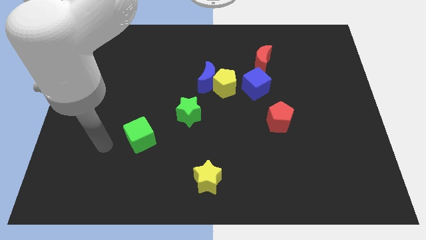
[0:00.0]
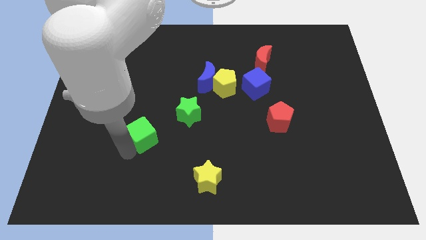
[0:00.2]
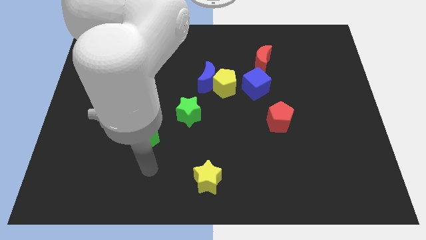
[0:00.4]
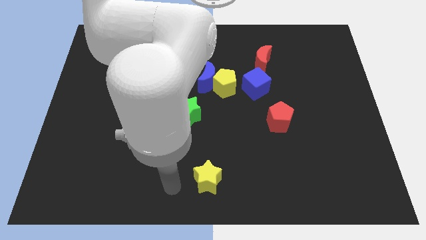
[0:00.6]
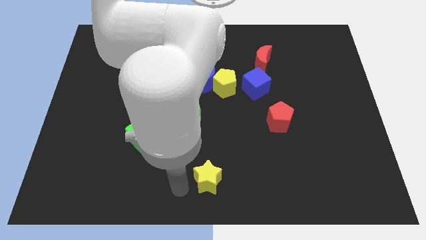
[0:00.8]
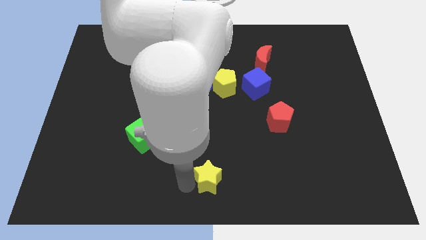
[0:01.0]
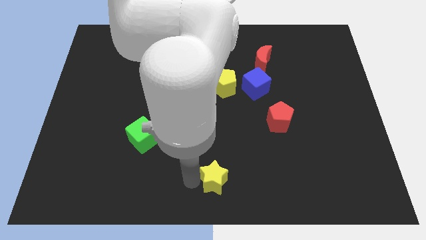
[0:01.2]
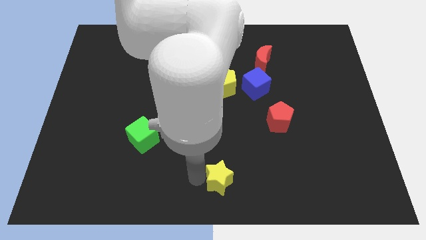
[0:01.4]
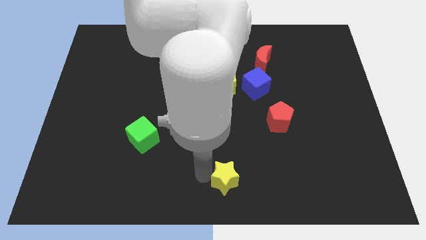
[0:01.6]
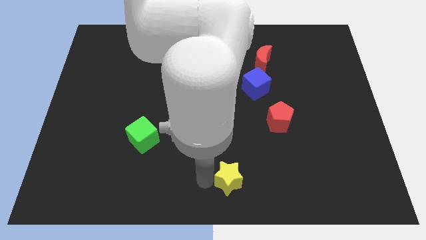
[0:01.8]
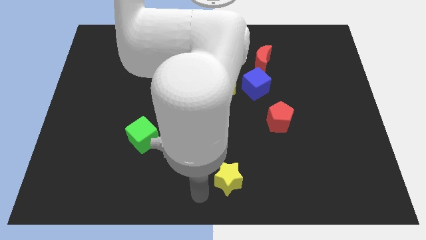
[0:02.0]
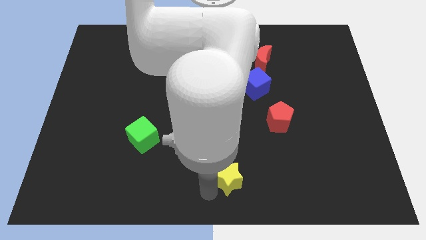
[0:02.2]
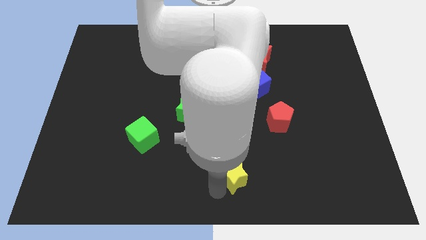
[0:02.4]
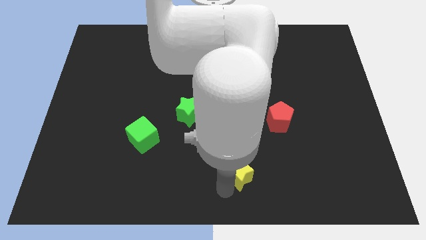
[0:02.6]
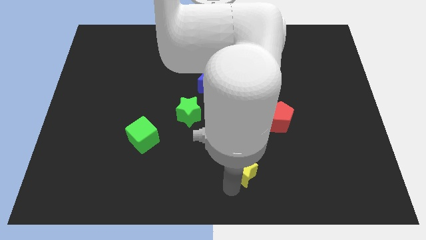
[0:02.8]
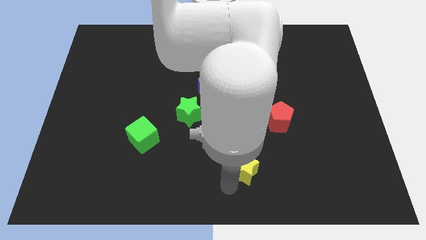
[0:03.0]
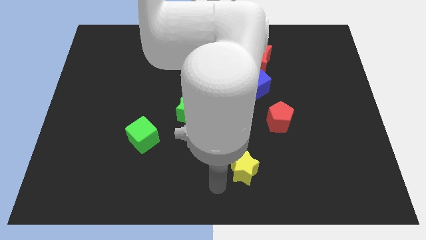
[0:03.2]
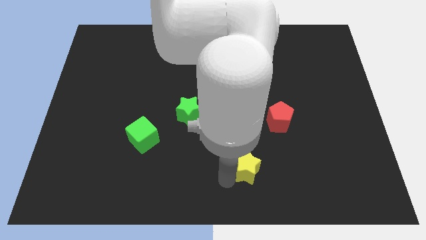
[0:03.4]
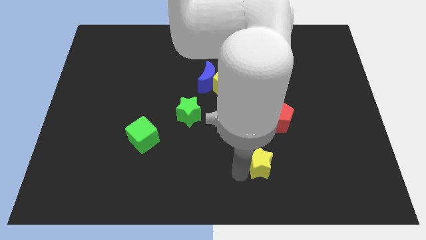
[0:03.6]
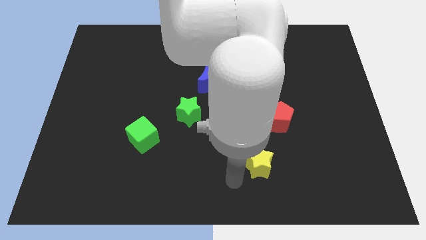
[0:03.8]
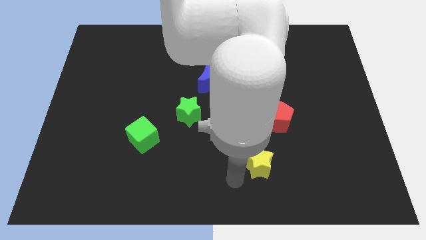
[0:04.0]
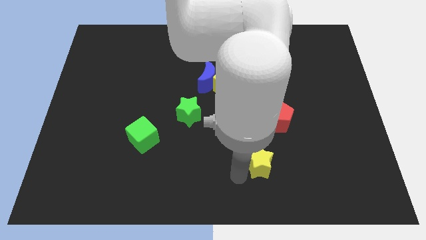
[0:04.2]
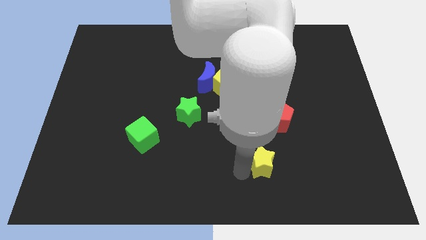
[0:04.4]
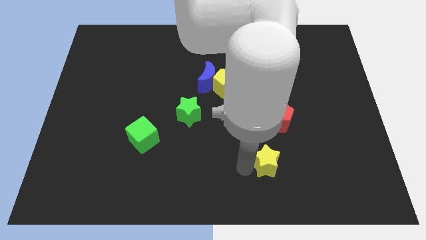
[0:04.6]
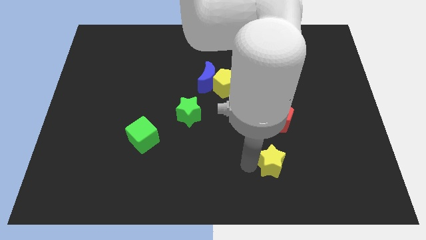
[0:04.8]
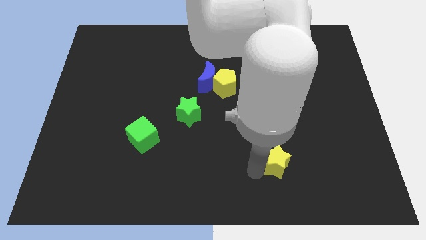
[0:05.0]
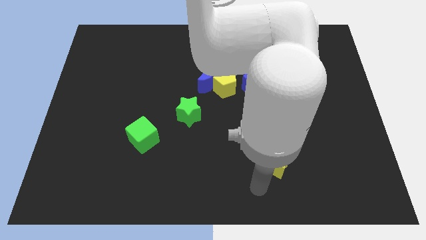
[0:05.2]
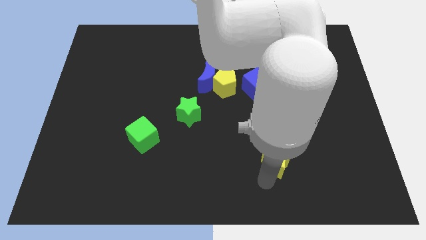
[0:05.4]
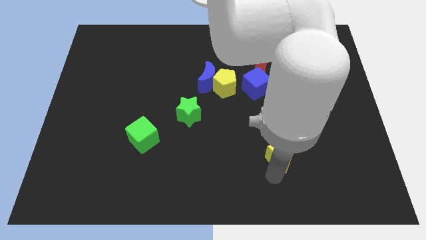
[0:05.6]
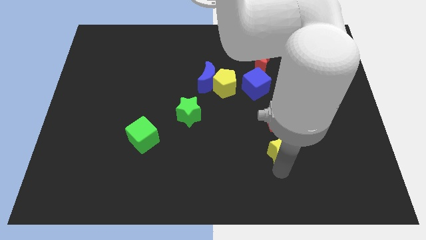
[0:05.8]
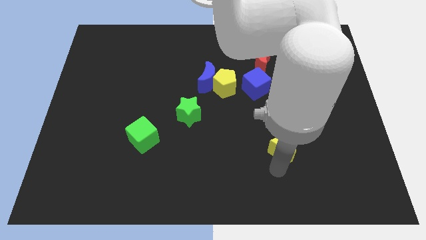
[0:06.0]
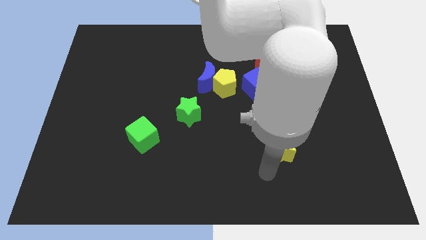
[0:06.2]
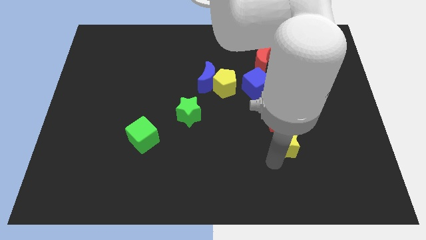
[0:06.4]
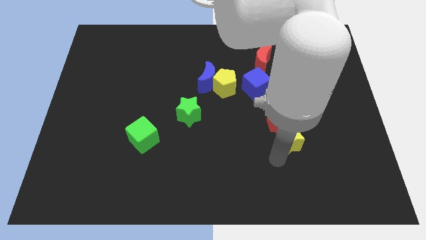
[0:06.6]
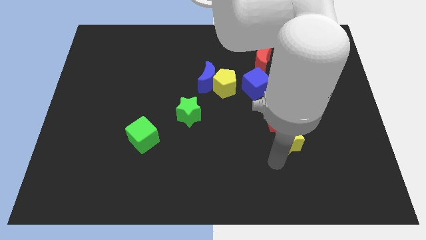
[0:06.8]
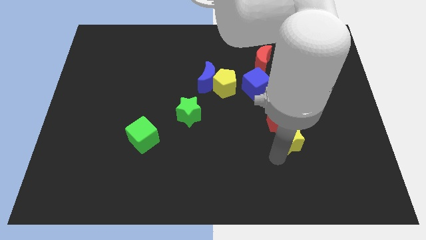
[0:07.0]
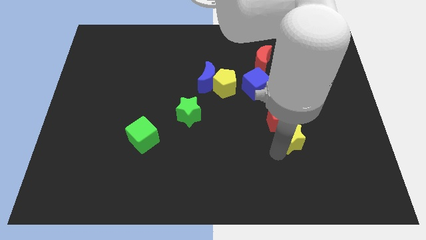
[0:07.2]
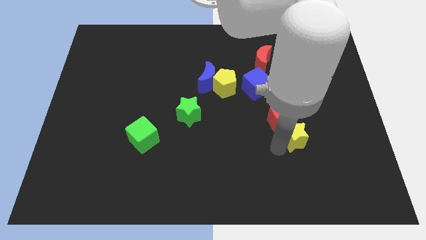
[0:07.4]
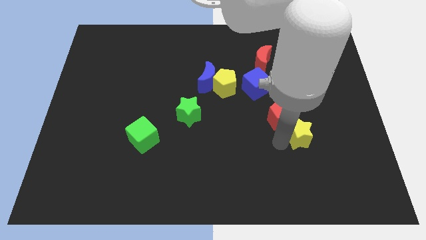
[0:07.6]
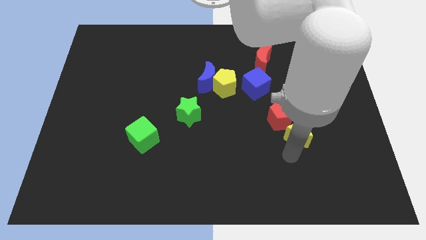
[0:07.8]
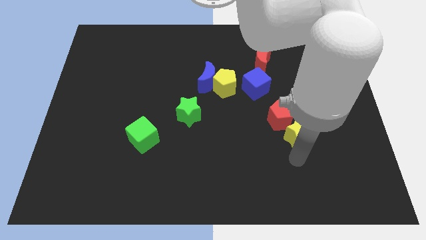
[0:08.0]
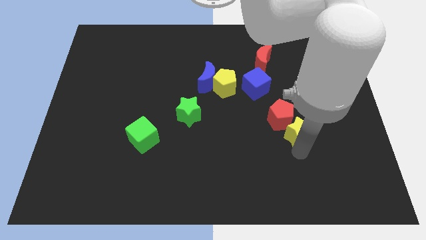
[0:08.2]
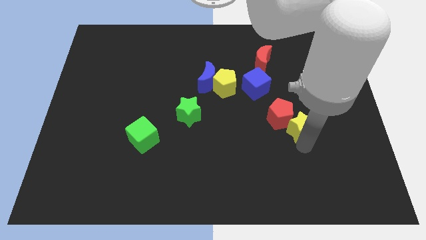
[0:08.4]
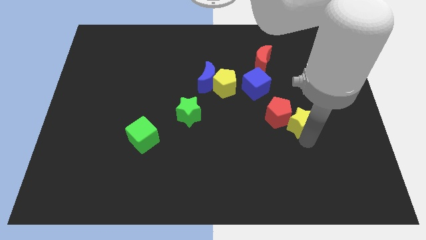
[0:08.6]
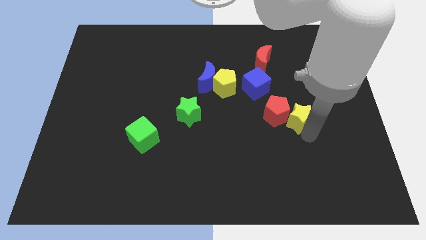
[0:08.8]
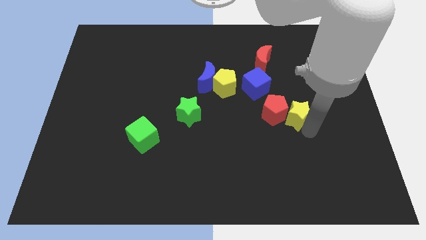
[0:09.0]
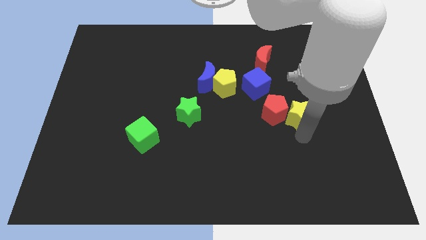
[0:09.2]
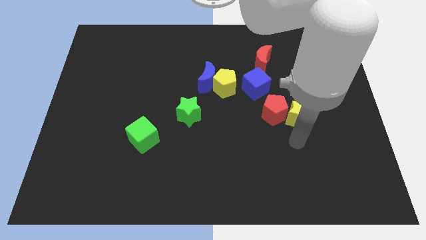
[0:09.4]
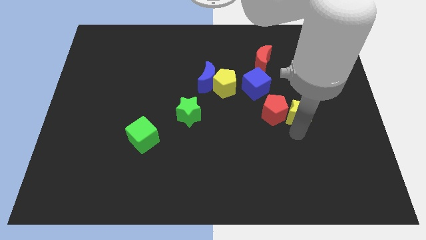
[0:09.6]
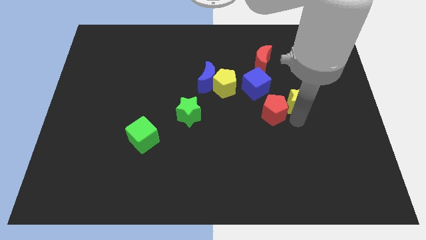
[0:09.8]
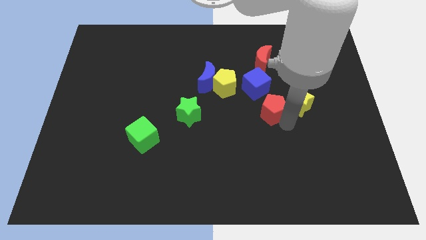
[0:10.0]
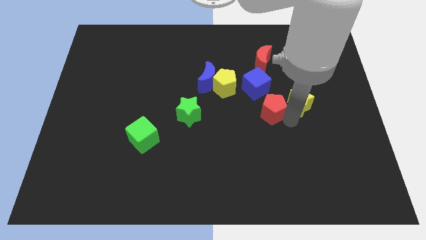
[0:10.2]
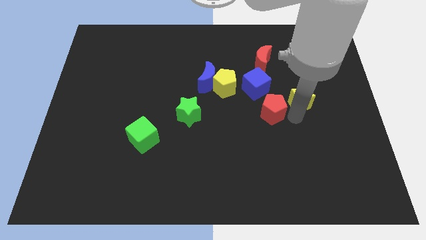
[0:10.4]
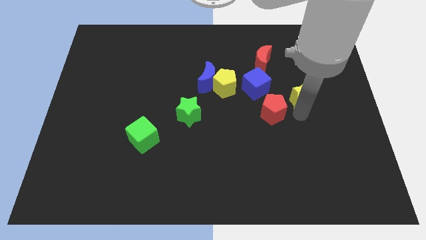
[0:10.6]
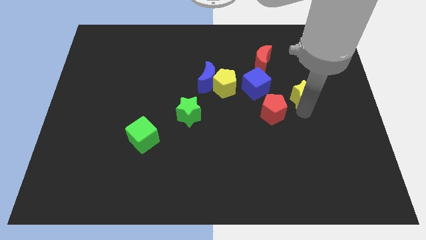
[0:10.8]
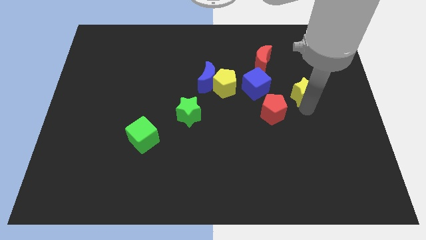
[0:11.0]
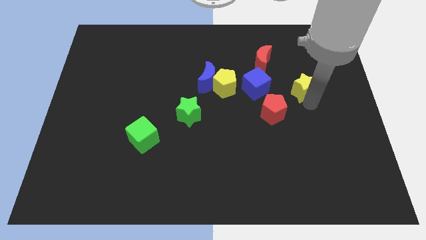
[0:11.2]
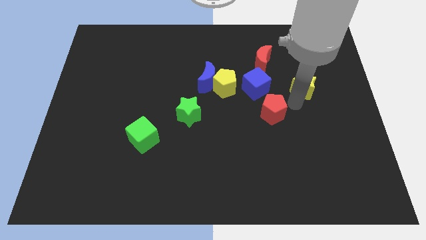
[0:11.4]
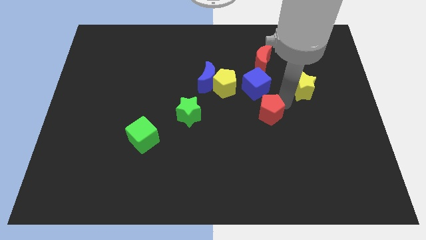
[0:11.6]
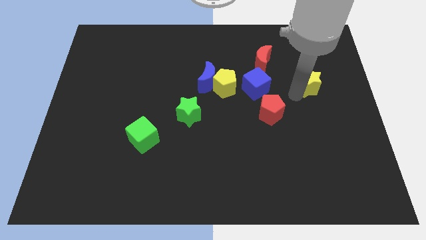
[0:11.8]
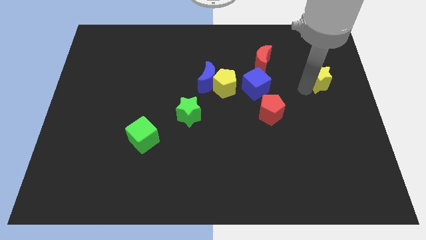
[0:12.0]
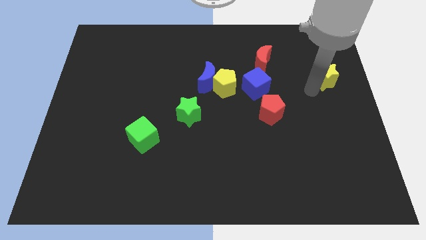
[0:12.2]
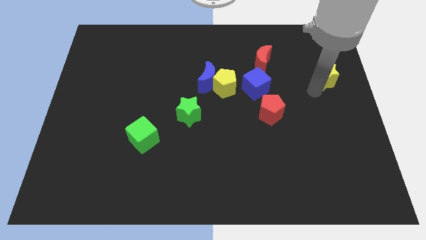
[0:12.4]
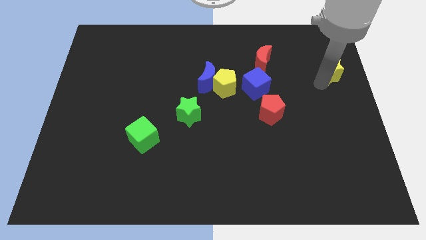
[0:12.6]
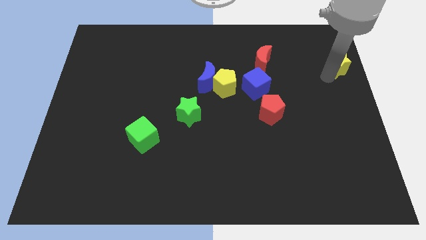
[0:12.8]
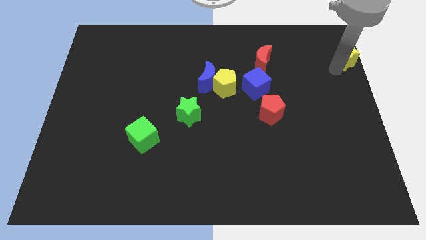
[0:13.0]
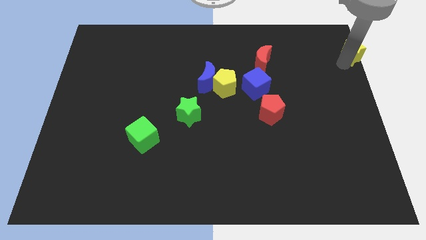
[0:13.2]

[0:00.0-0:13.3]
put the yellow star to the top right of the board
